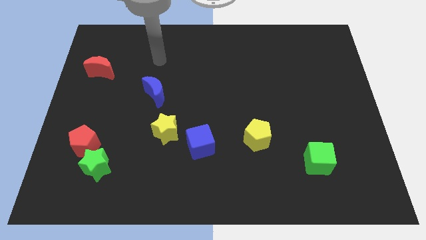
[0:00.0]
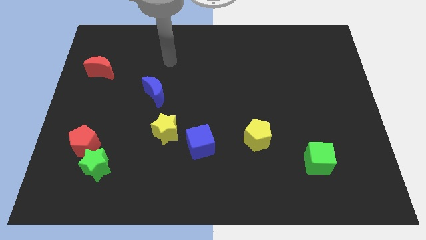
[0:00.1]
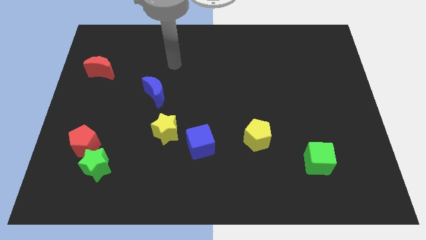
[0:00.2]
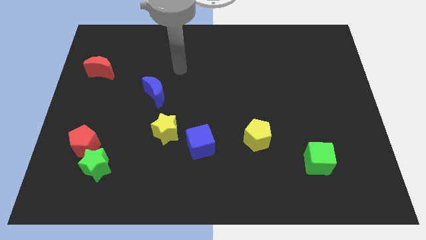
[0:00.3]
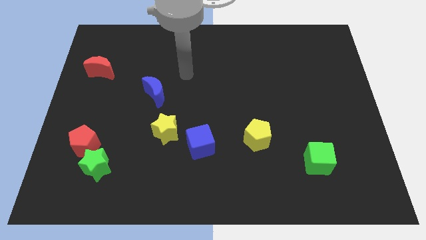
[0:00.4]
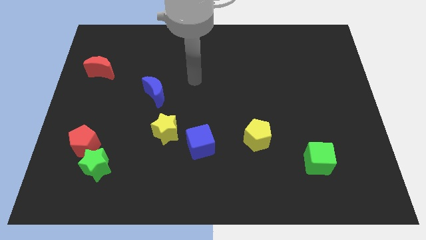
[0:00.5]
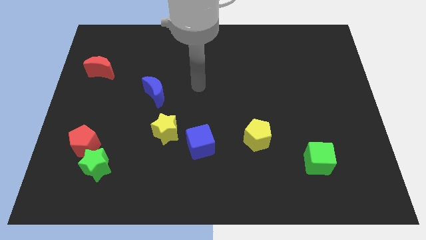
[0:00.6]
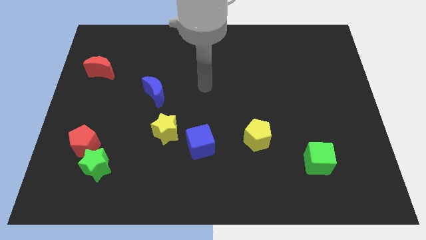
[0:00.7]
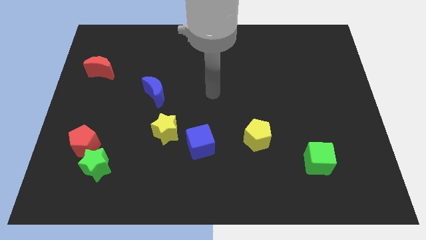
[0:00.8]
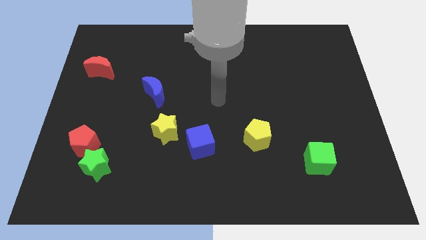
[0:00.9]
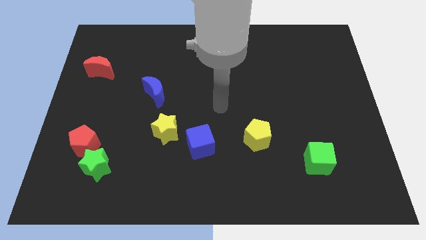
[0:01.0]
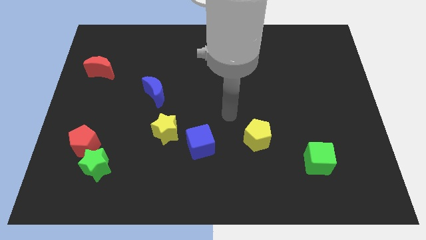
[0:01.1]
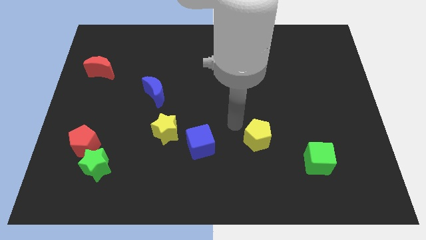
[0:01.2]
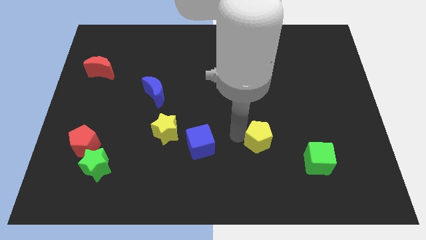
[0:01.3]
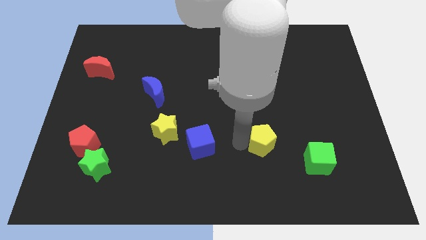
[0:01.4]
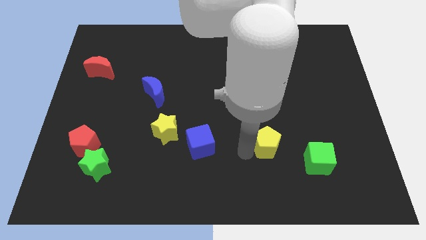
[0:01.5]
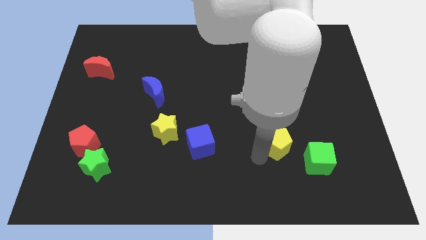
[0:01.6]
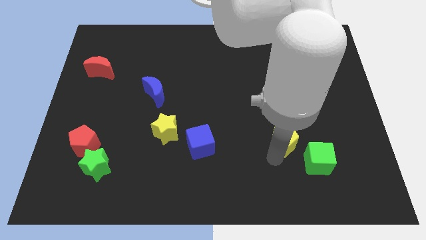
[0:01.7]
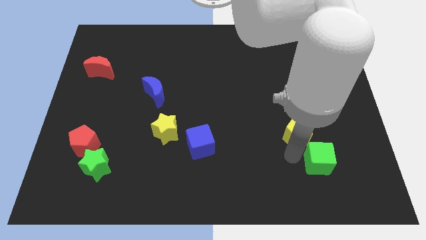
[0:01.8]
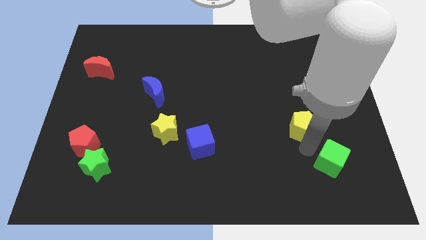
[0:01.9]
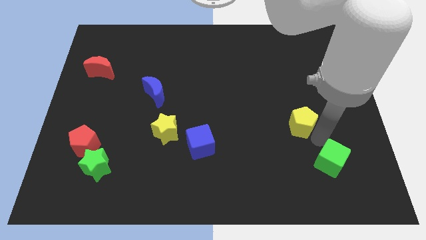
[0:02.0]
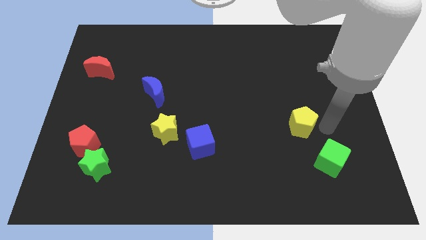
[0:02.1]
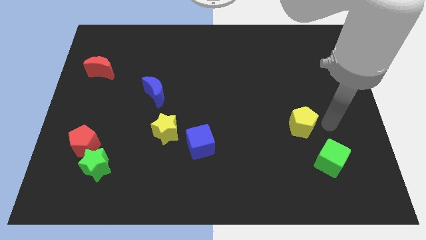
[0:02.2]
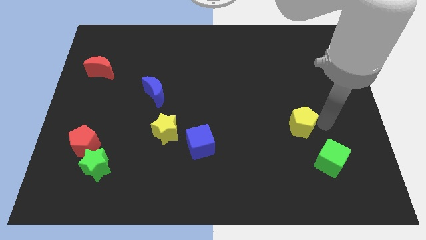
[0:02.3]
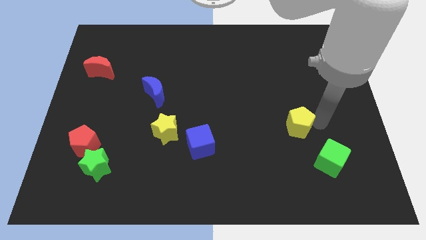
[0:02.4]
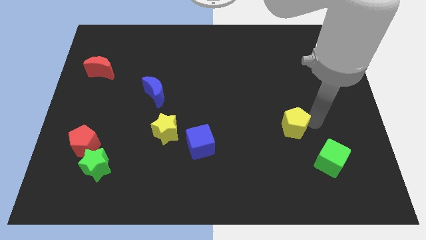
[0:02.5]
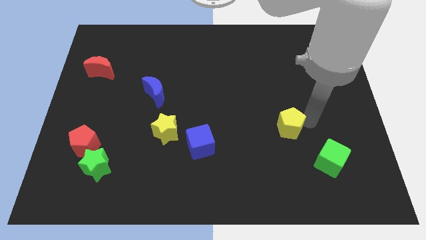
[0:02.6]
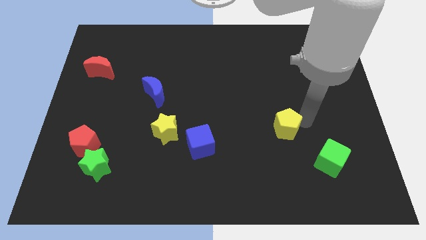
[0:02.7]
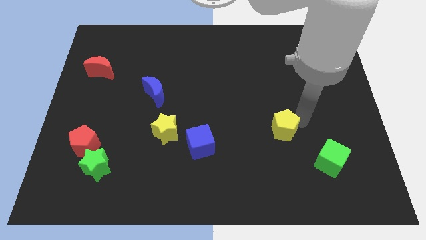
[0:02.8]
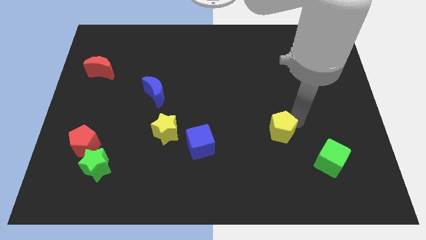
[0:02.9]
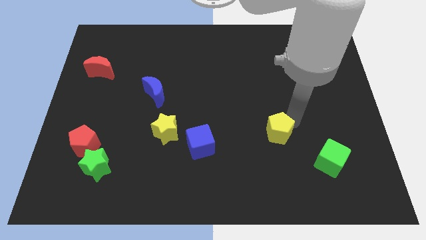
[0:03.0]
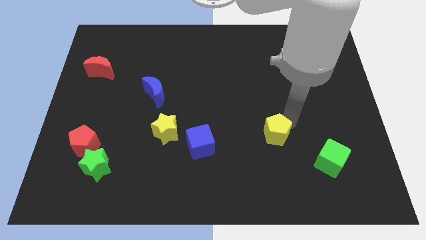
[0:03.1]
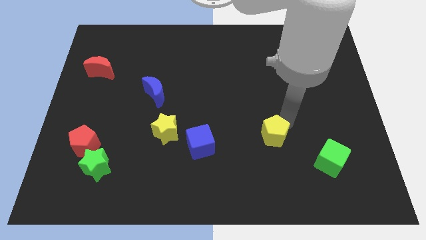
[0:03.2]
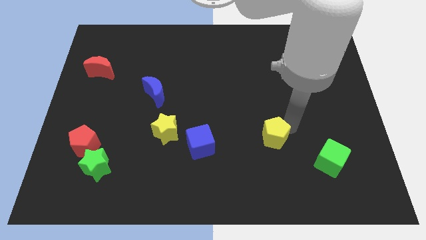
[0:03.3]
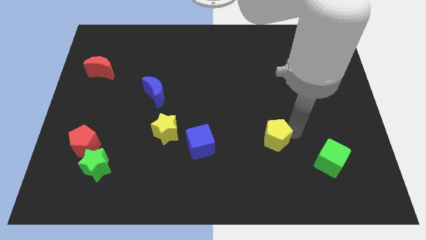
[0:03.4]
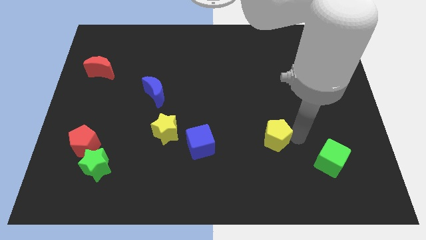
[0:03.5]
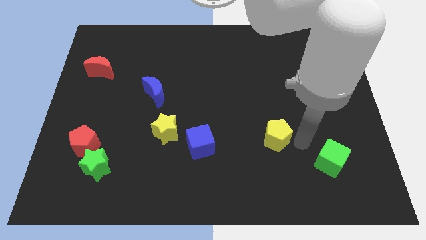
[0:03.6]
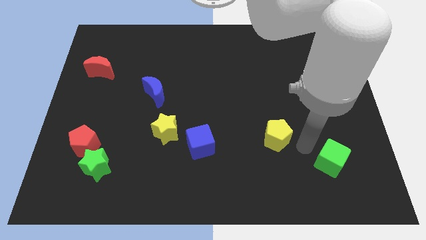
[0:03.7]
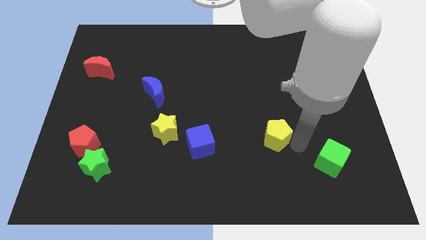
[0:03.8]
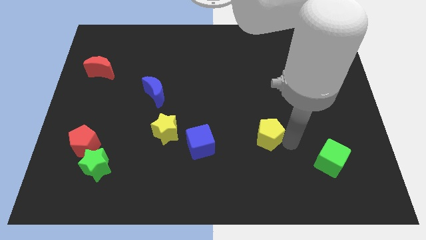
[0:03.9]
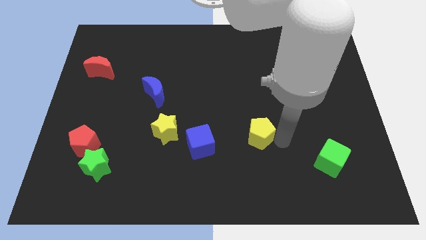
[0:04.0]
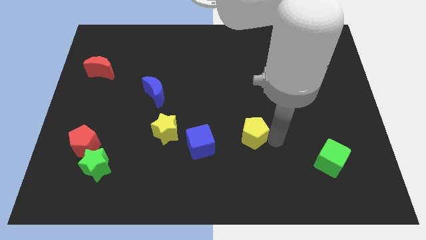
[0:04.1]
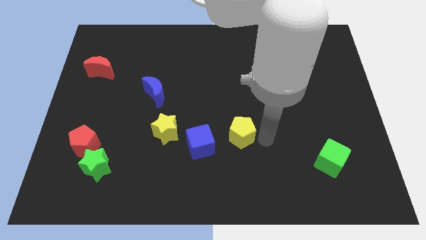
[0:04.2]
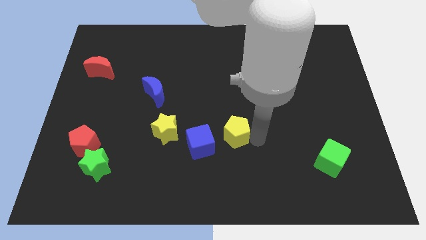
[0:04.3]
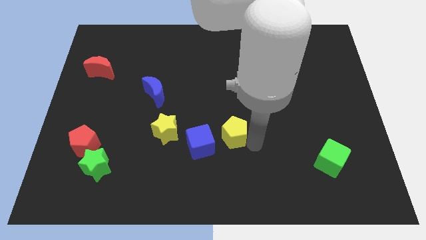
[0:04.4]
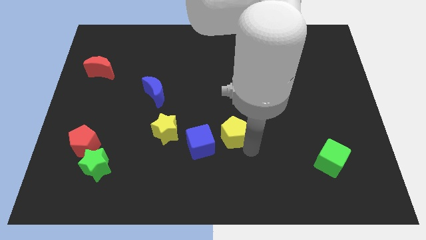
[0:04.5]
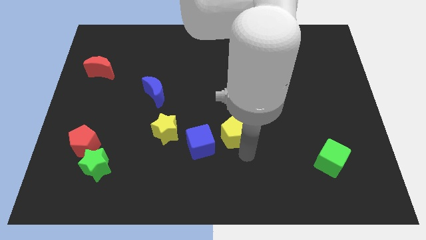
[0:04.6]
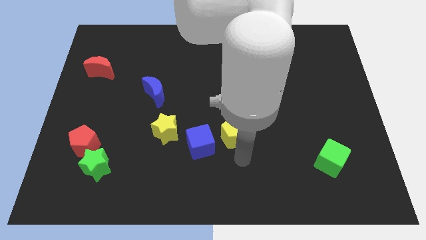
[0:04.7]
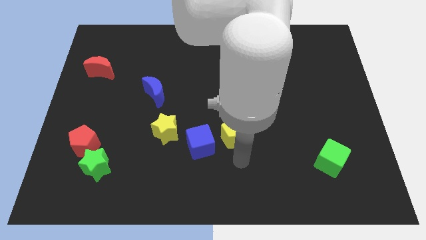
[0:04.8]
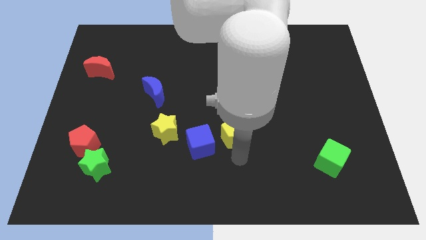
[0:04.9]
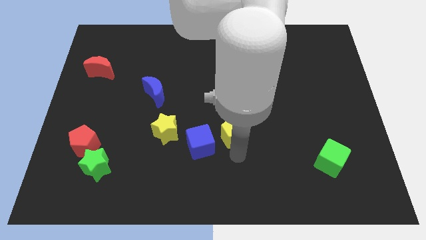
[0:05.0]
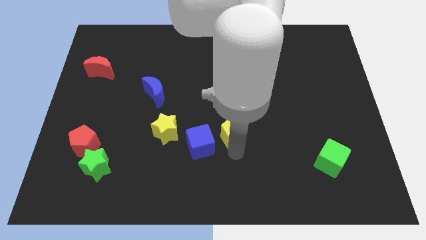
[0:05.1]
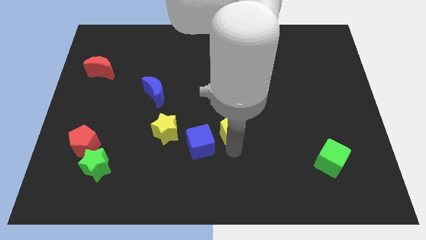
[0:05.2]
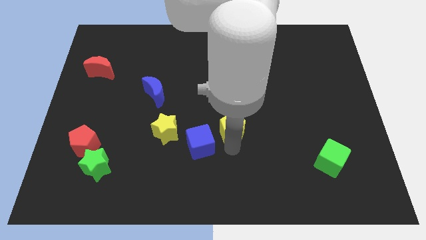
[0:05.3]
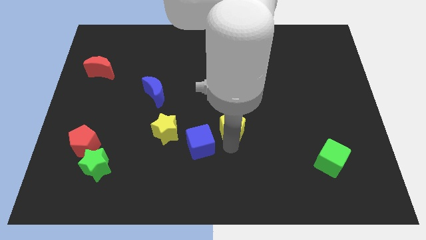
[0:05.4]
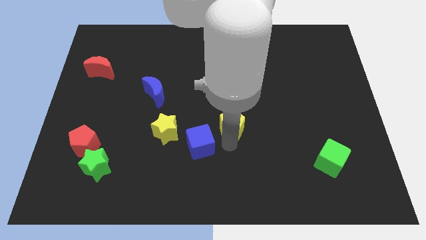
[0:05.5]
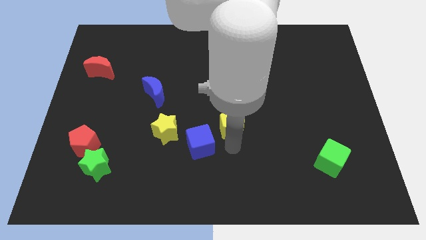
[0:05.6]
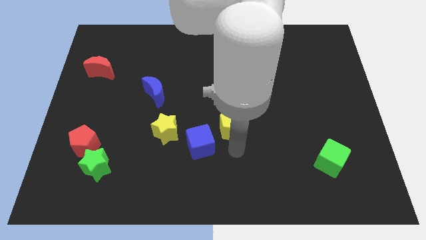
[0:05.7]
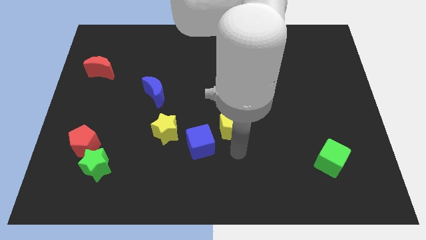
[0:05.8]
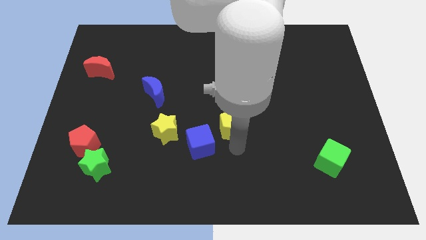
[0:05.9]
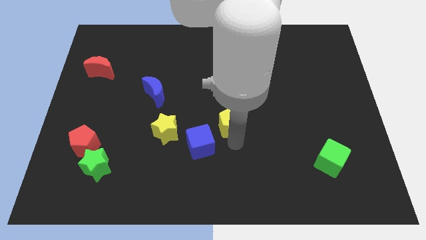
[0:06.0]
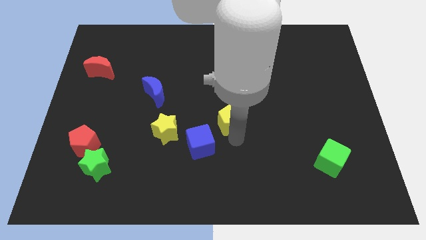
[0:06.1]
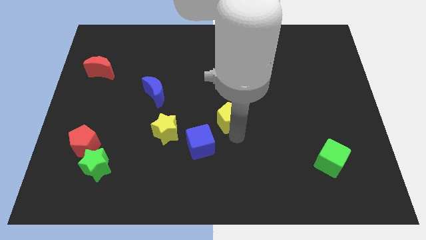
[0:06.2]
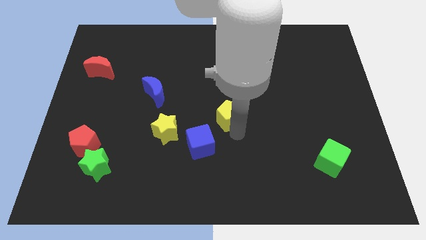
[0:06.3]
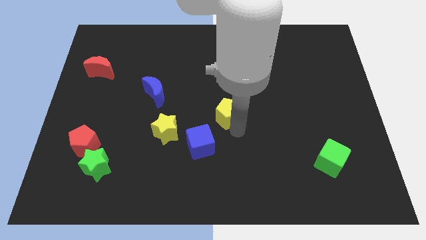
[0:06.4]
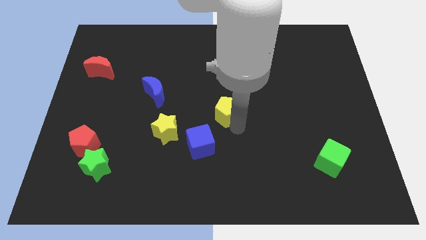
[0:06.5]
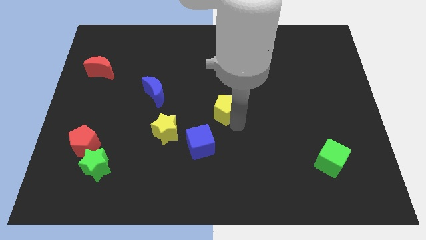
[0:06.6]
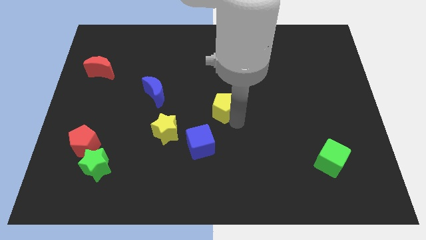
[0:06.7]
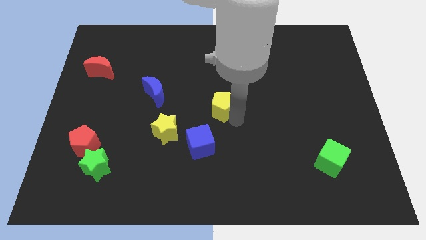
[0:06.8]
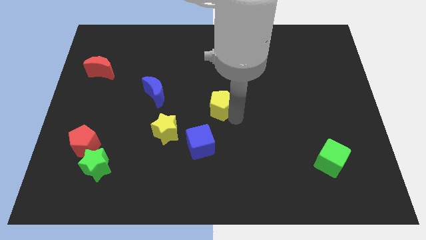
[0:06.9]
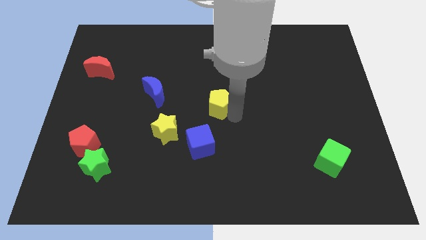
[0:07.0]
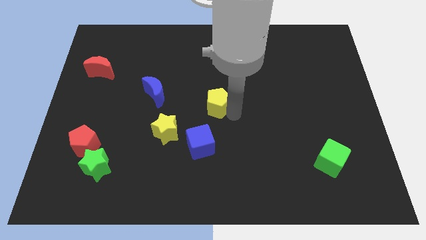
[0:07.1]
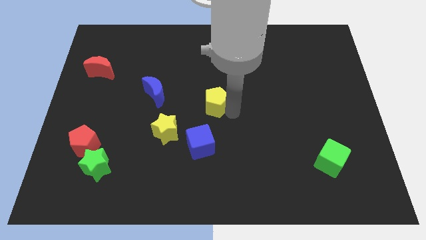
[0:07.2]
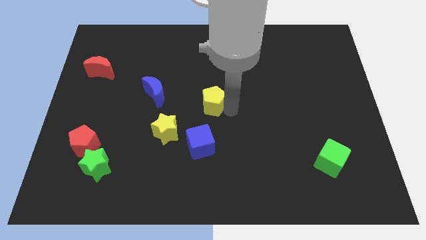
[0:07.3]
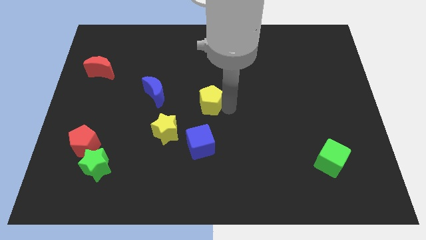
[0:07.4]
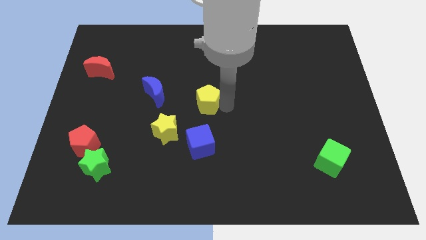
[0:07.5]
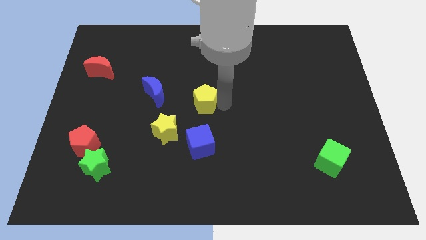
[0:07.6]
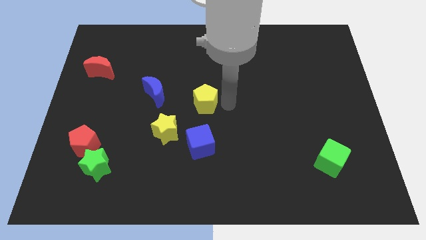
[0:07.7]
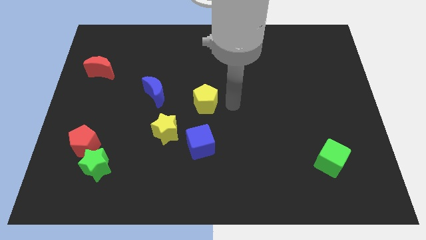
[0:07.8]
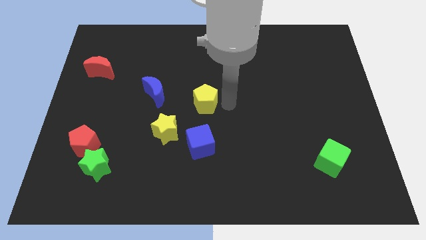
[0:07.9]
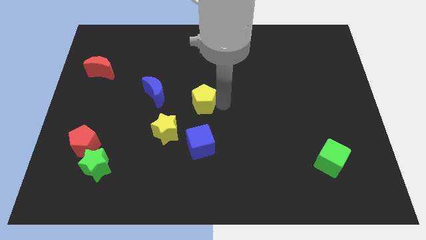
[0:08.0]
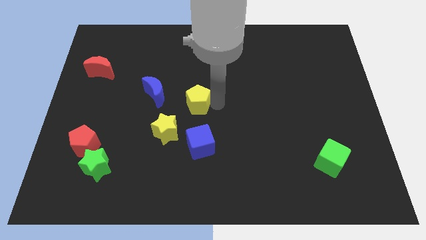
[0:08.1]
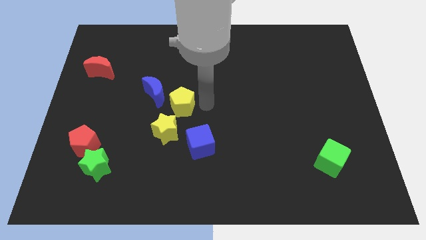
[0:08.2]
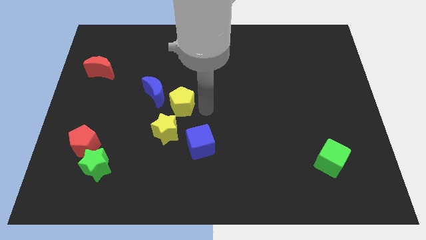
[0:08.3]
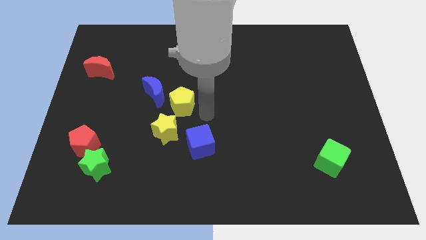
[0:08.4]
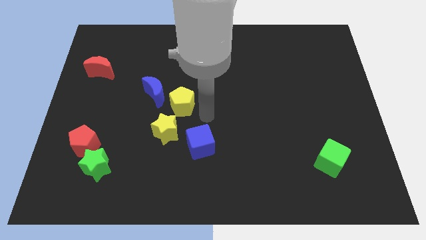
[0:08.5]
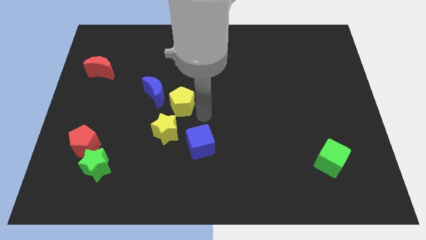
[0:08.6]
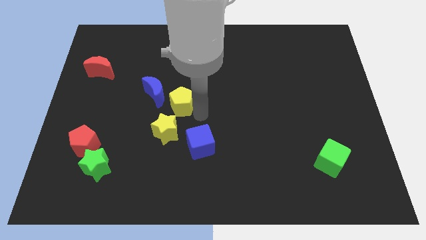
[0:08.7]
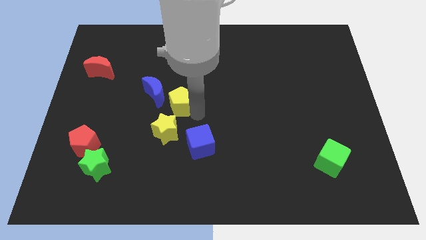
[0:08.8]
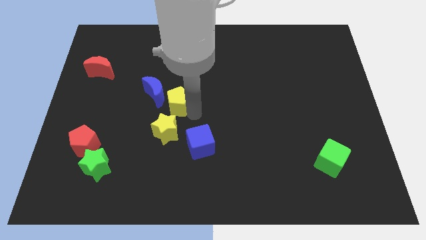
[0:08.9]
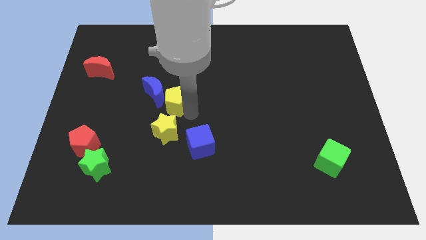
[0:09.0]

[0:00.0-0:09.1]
push the yellow pentagon close to the blue moon
